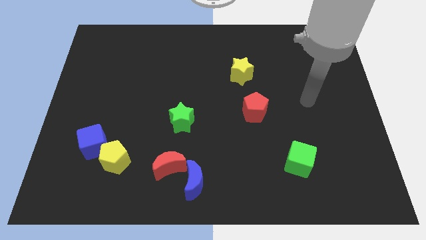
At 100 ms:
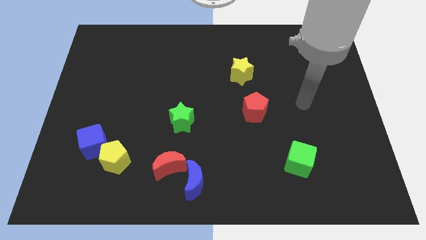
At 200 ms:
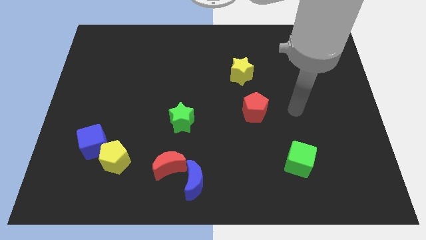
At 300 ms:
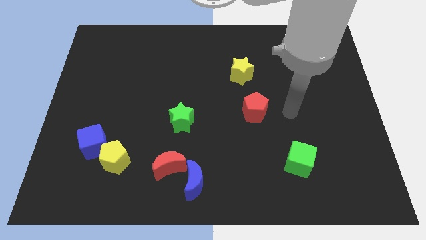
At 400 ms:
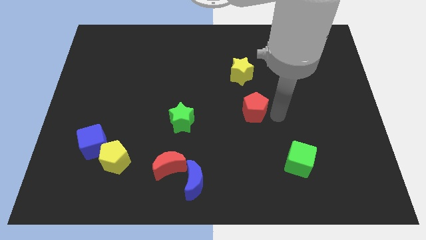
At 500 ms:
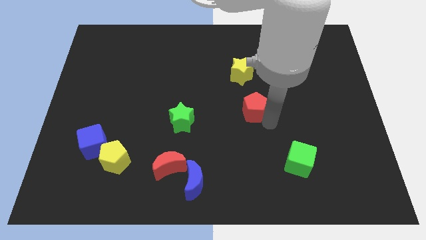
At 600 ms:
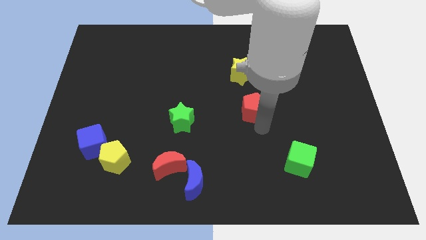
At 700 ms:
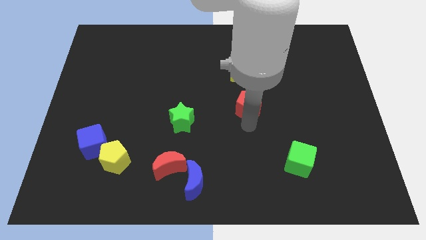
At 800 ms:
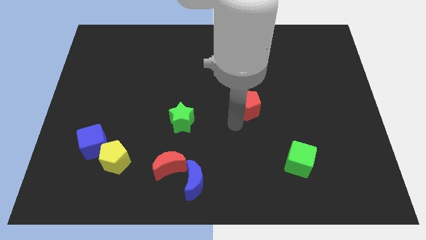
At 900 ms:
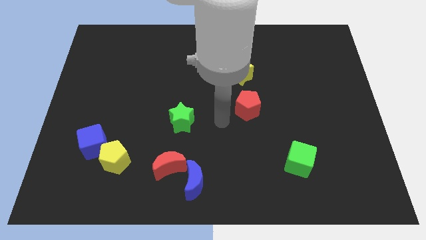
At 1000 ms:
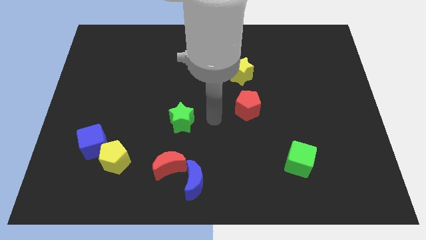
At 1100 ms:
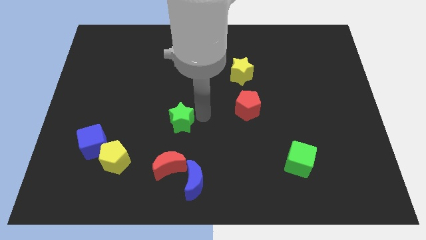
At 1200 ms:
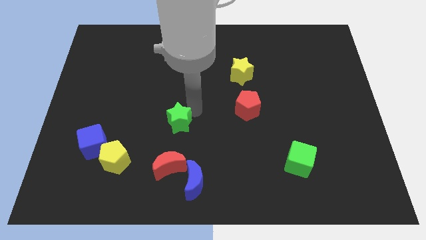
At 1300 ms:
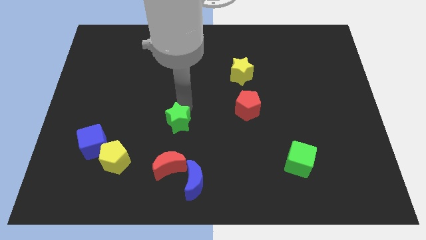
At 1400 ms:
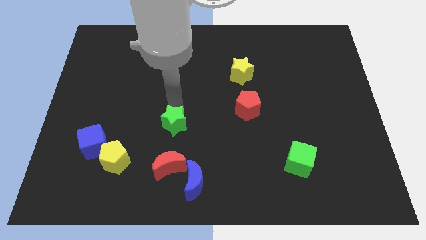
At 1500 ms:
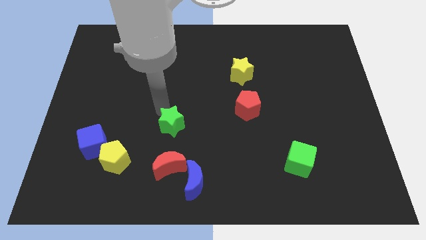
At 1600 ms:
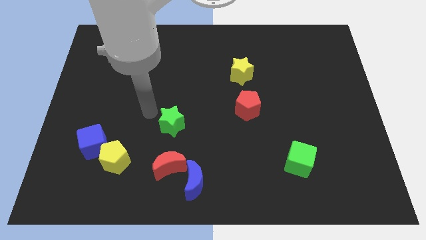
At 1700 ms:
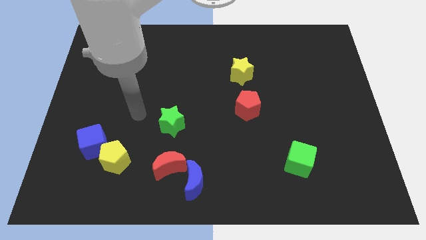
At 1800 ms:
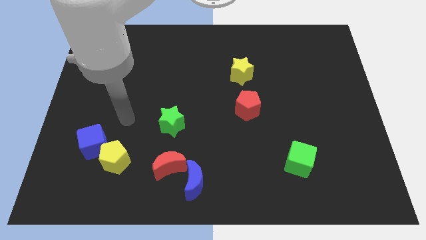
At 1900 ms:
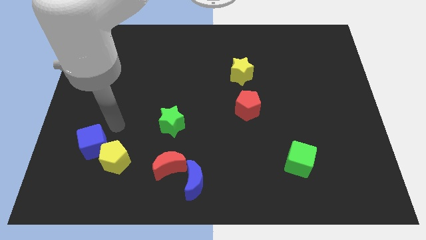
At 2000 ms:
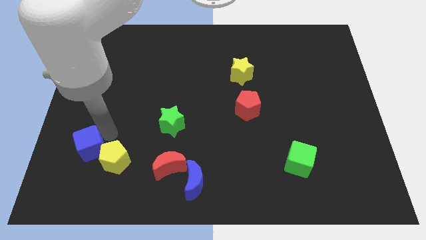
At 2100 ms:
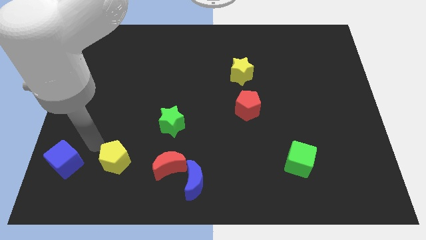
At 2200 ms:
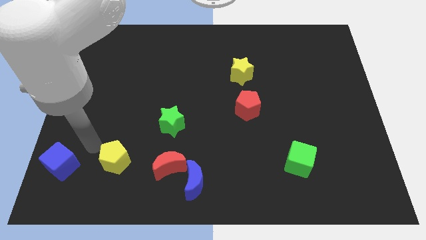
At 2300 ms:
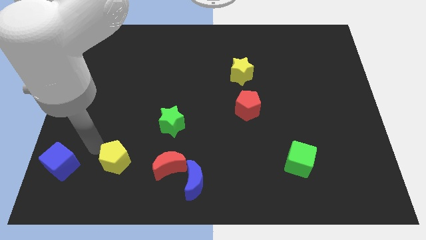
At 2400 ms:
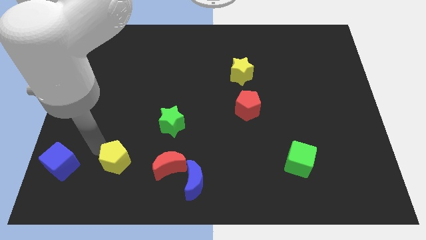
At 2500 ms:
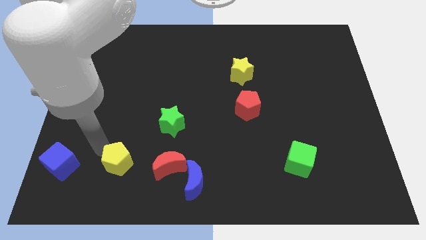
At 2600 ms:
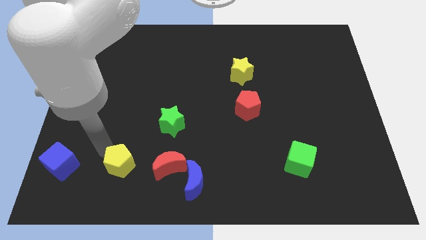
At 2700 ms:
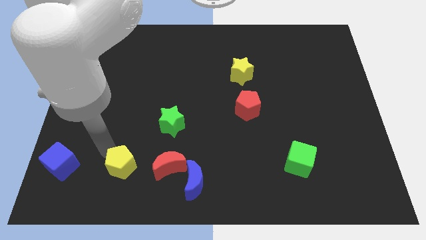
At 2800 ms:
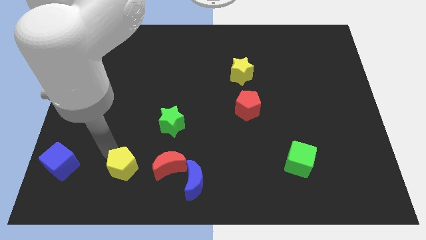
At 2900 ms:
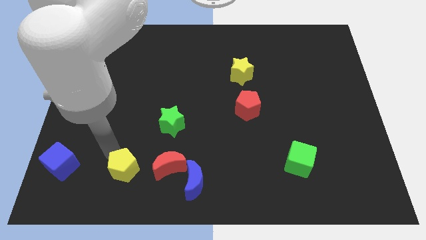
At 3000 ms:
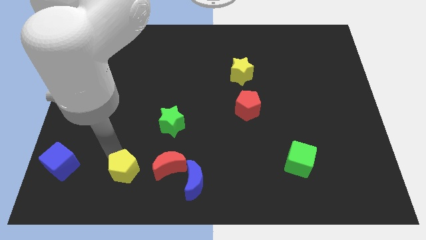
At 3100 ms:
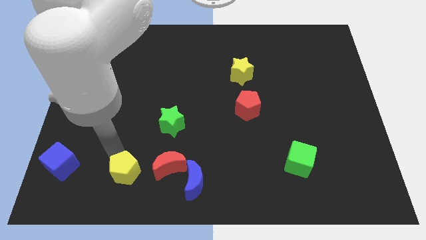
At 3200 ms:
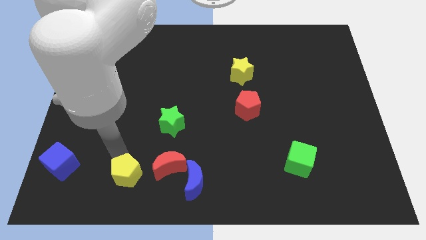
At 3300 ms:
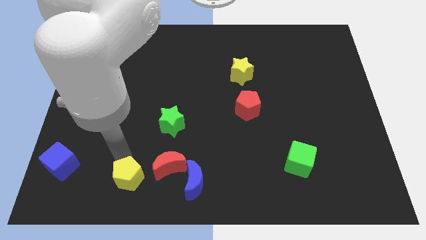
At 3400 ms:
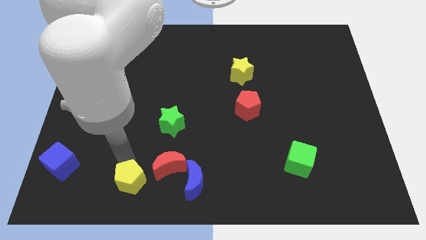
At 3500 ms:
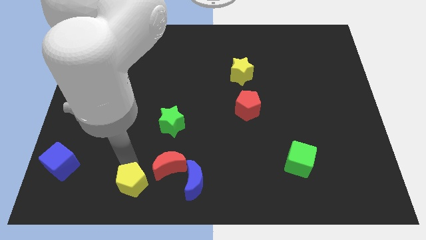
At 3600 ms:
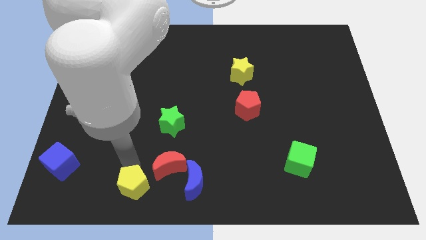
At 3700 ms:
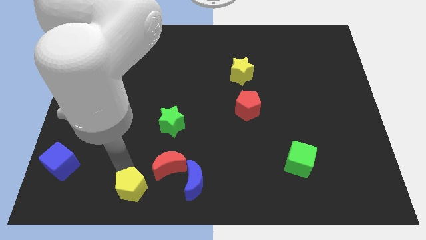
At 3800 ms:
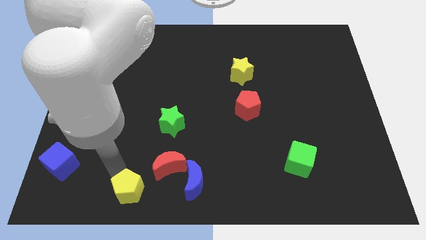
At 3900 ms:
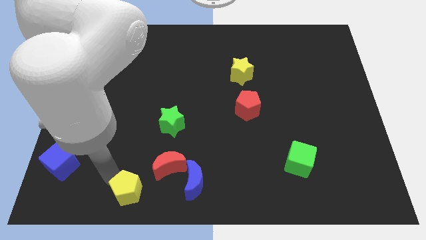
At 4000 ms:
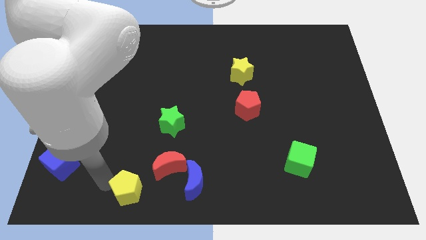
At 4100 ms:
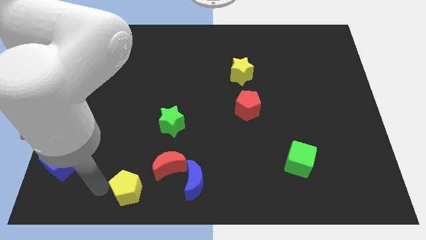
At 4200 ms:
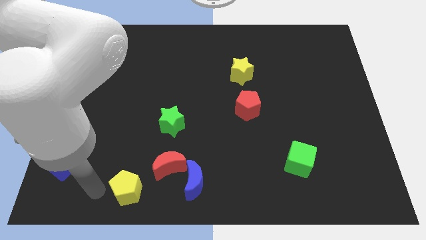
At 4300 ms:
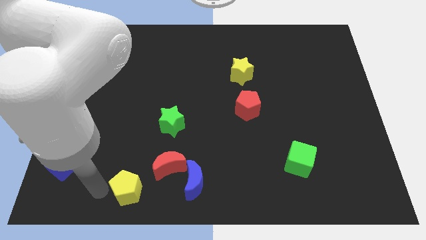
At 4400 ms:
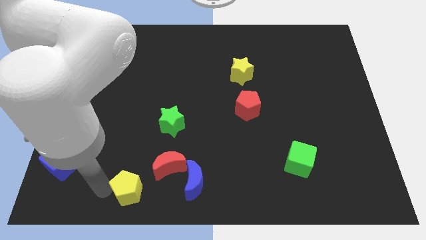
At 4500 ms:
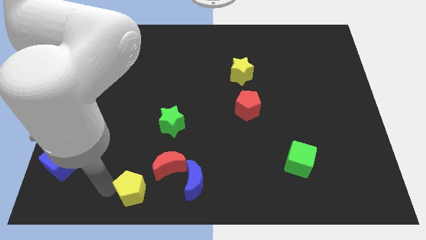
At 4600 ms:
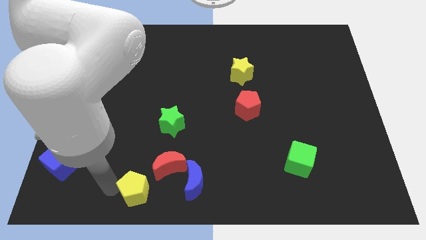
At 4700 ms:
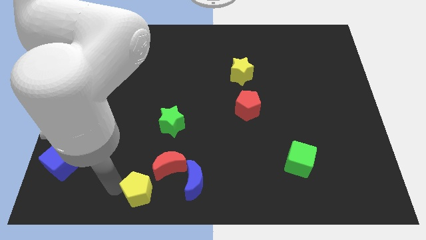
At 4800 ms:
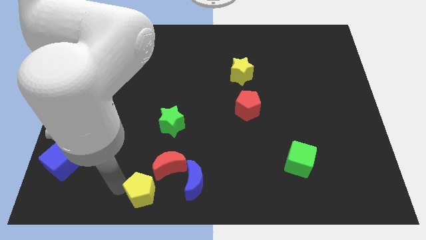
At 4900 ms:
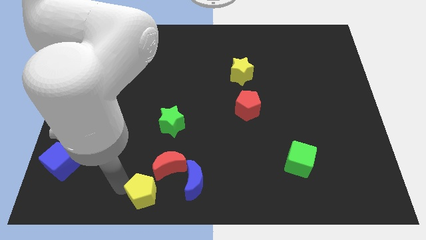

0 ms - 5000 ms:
push the yellow pentagon to the bottom side

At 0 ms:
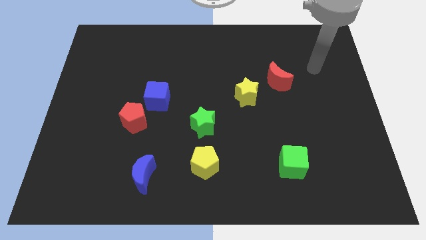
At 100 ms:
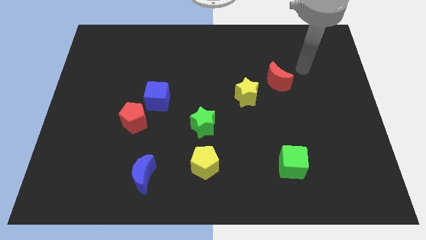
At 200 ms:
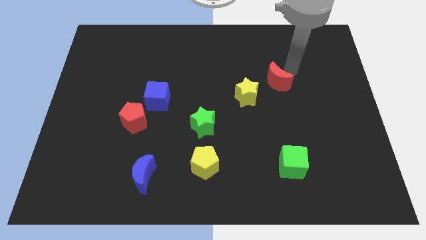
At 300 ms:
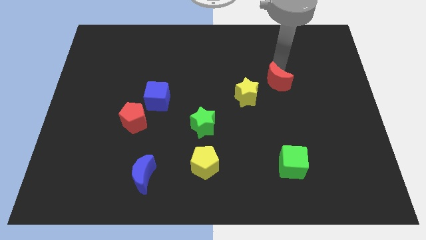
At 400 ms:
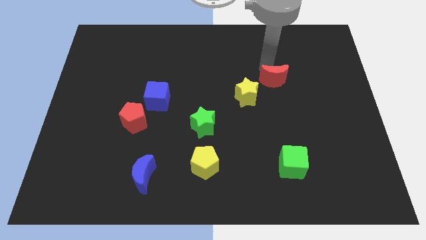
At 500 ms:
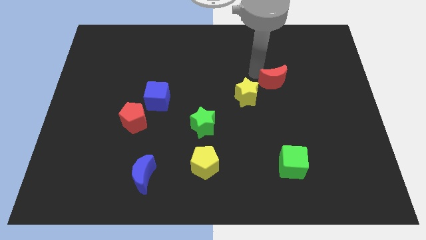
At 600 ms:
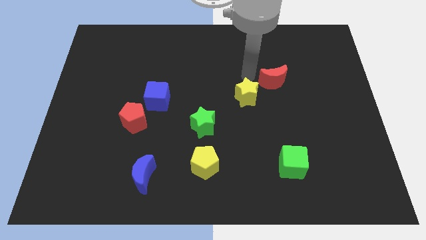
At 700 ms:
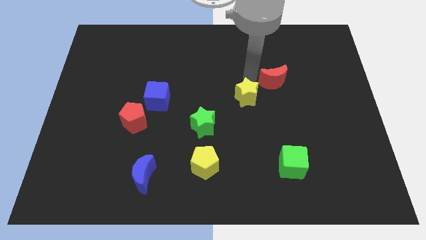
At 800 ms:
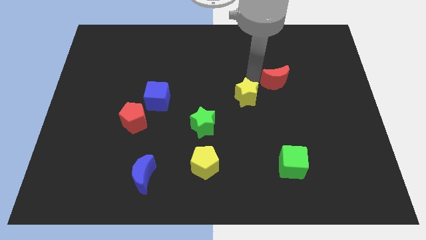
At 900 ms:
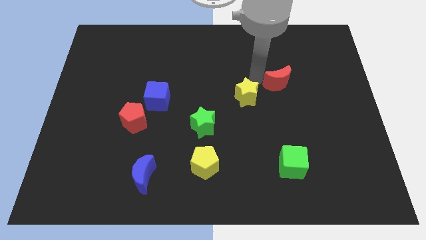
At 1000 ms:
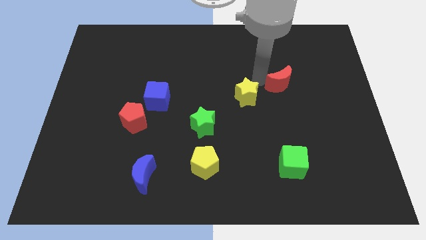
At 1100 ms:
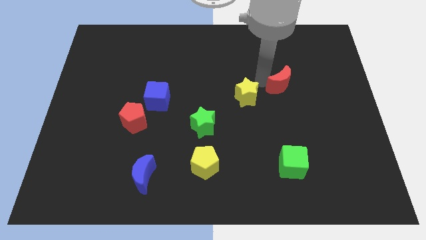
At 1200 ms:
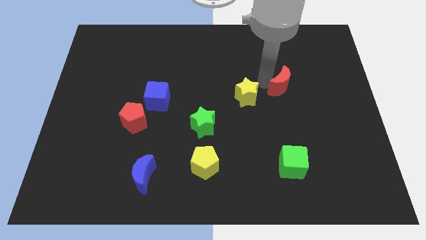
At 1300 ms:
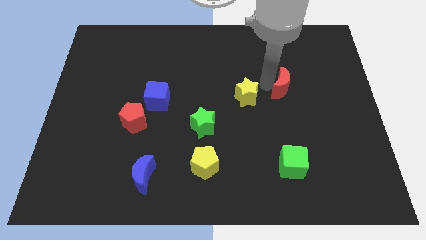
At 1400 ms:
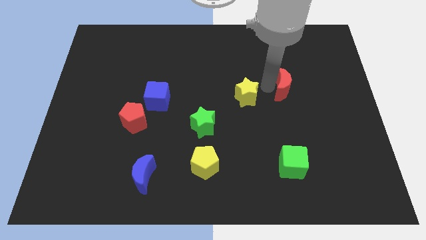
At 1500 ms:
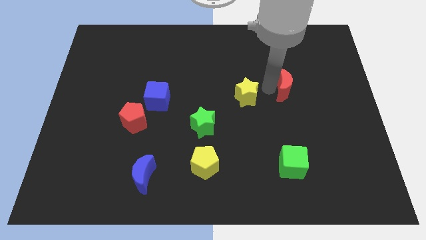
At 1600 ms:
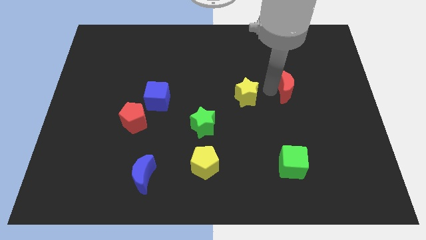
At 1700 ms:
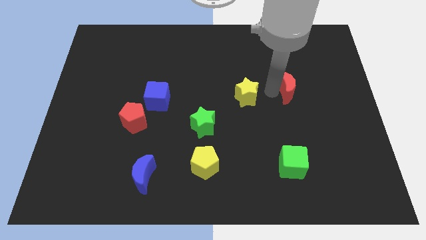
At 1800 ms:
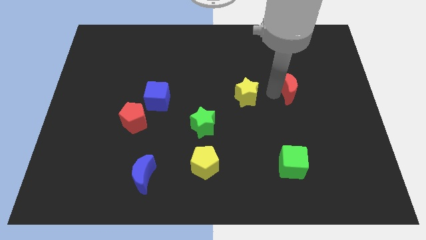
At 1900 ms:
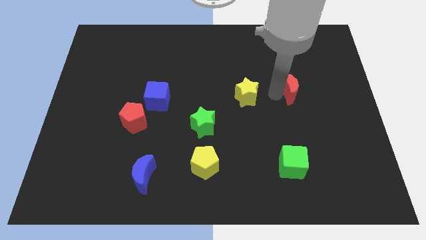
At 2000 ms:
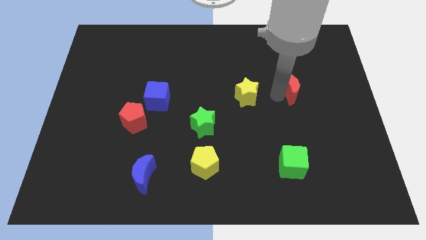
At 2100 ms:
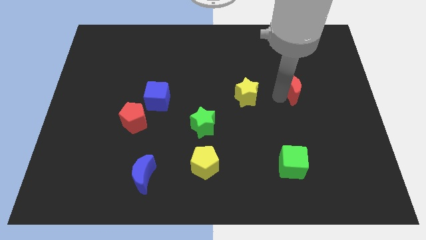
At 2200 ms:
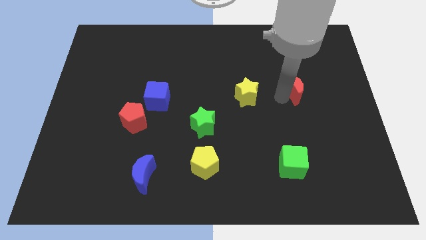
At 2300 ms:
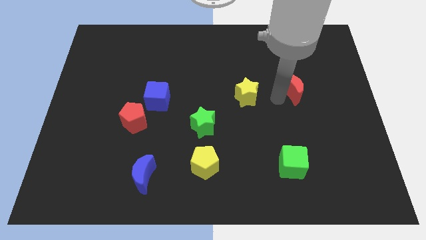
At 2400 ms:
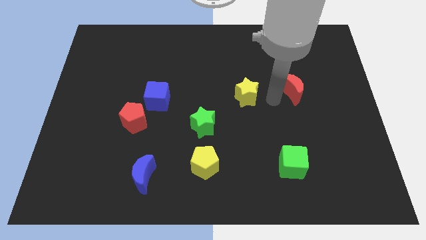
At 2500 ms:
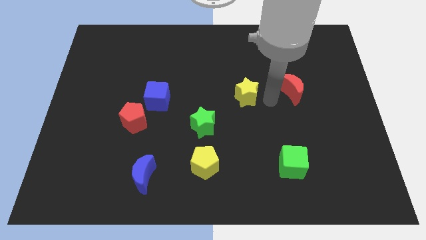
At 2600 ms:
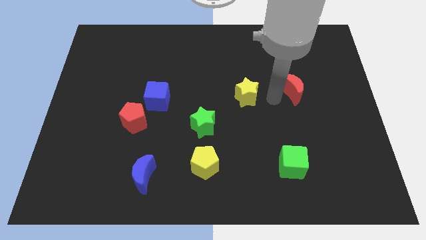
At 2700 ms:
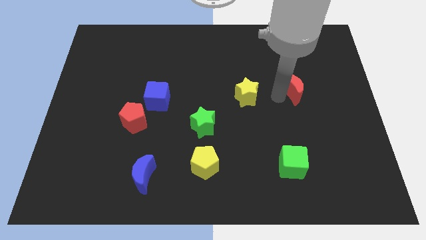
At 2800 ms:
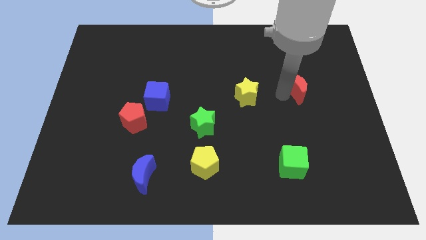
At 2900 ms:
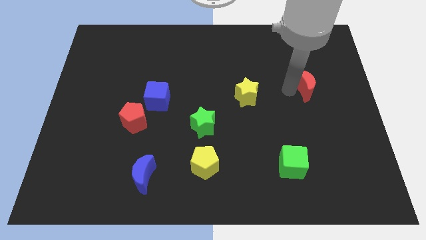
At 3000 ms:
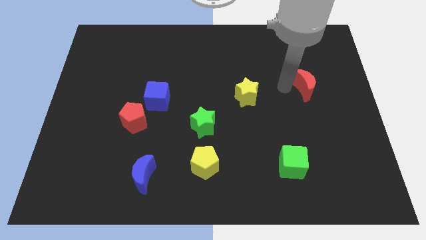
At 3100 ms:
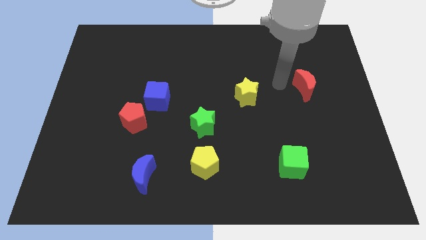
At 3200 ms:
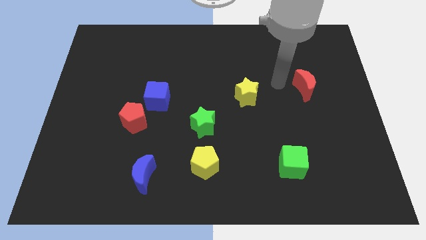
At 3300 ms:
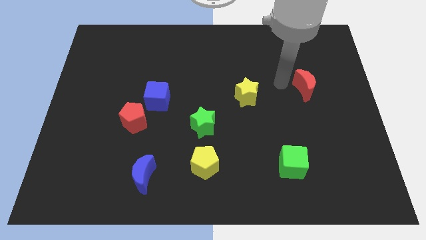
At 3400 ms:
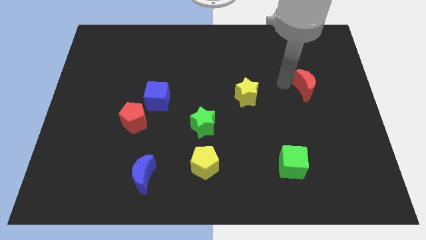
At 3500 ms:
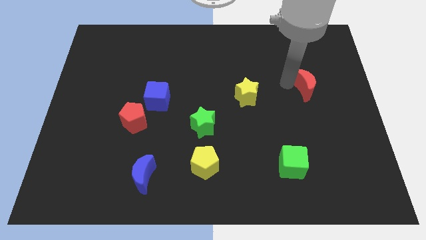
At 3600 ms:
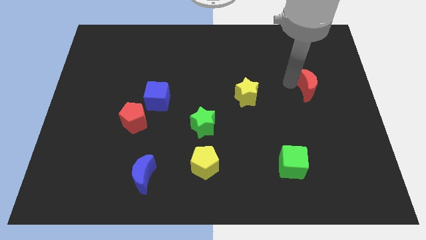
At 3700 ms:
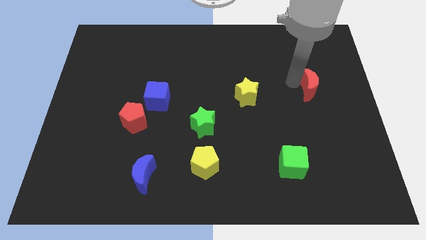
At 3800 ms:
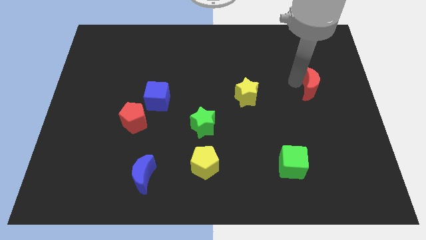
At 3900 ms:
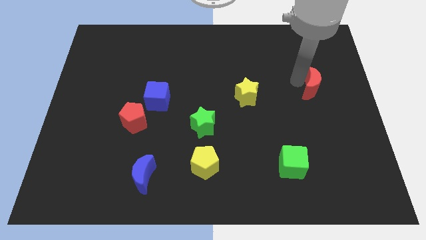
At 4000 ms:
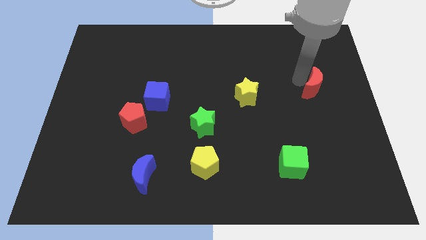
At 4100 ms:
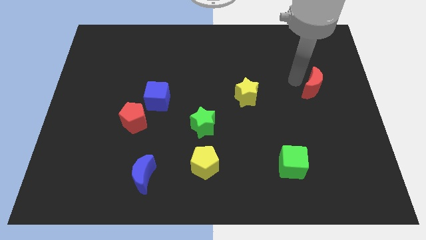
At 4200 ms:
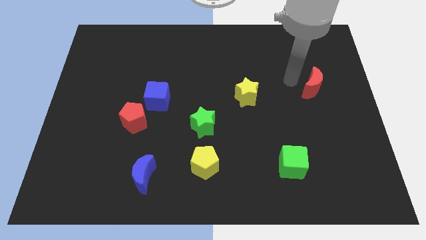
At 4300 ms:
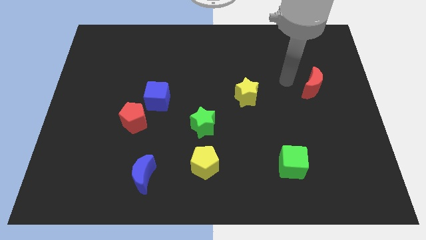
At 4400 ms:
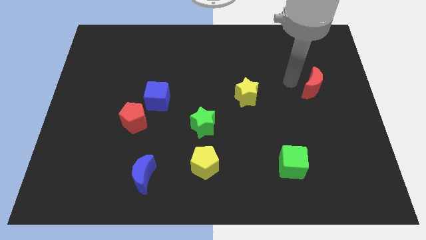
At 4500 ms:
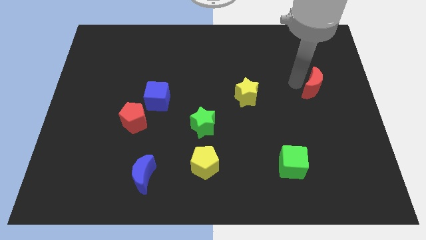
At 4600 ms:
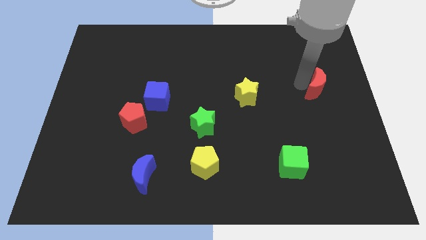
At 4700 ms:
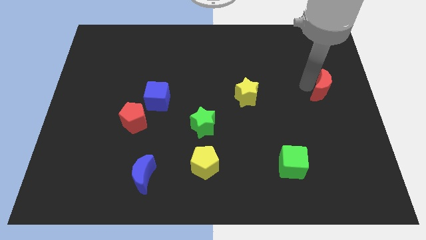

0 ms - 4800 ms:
put the red moon to the right side of the board
